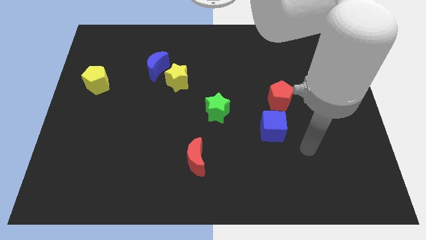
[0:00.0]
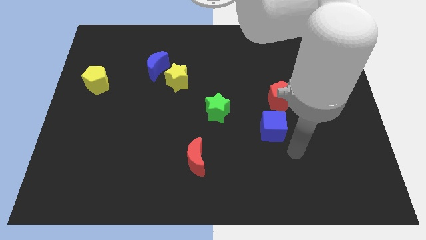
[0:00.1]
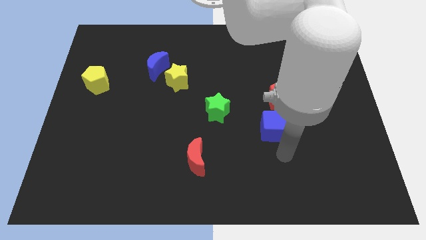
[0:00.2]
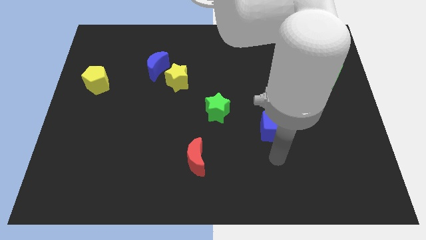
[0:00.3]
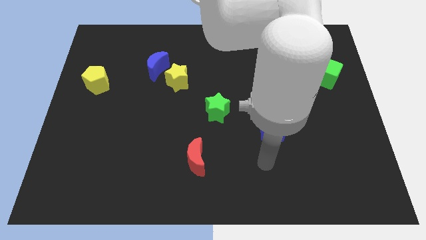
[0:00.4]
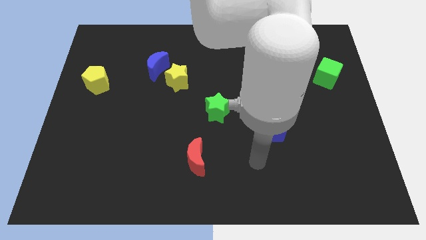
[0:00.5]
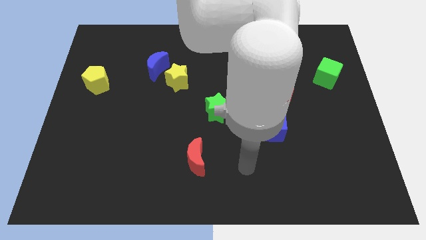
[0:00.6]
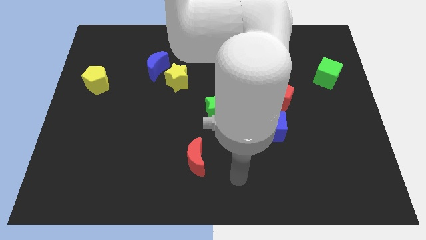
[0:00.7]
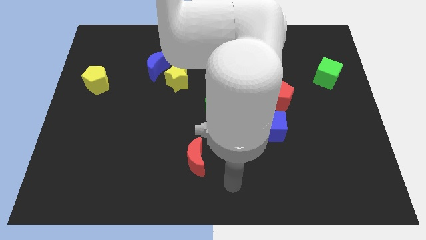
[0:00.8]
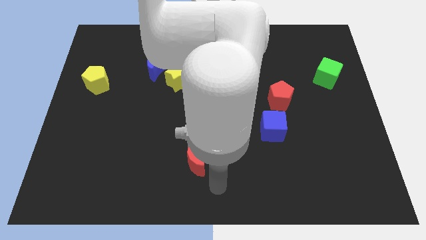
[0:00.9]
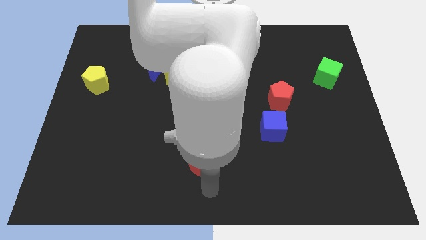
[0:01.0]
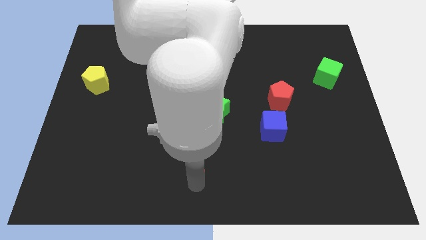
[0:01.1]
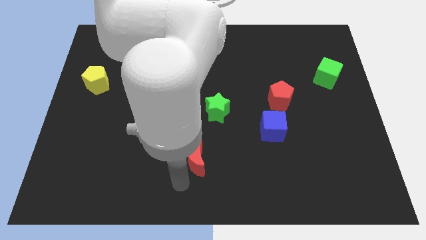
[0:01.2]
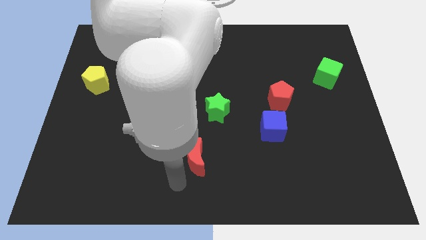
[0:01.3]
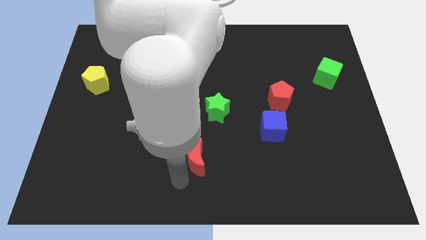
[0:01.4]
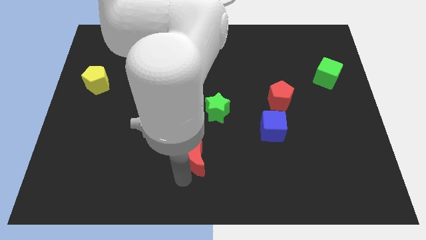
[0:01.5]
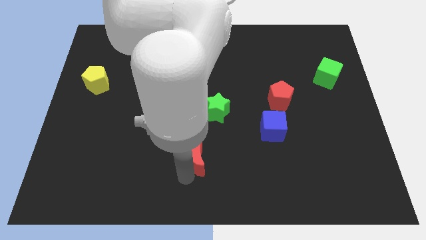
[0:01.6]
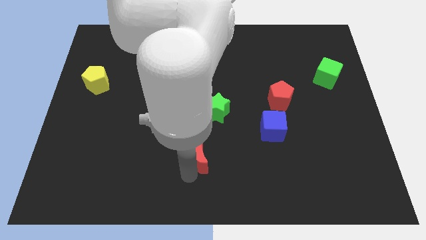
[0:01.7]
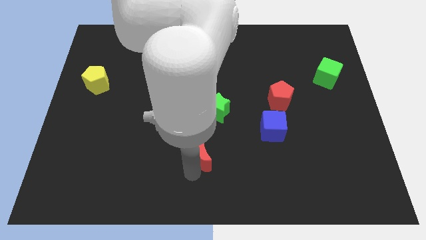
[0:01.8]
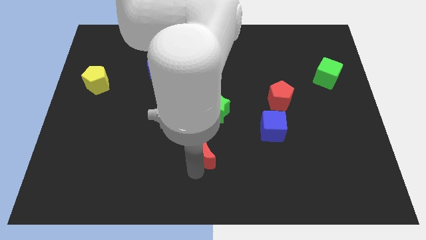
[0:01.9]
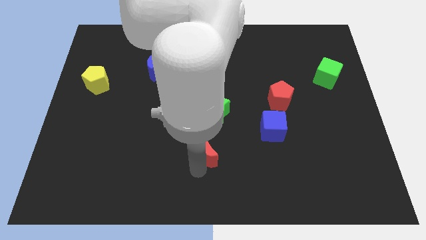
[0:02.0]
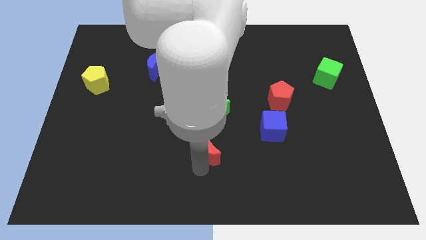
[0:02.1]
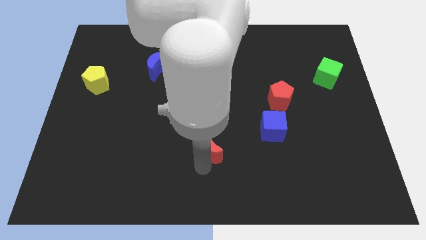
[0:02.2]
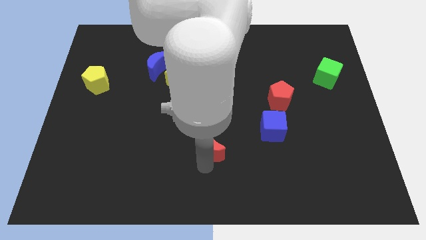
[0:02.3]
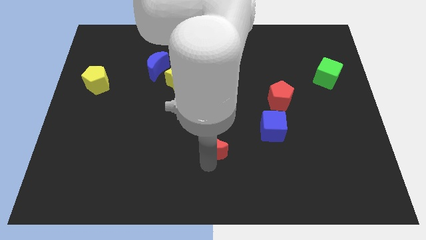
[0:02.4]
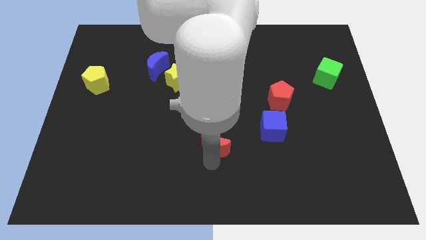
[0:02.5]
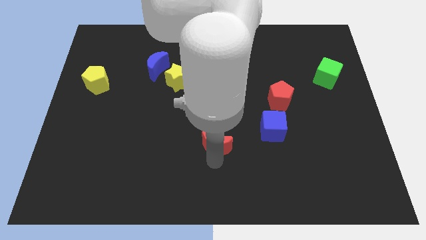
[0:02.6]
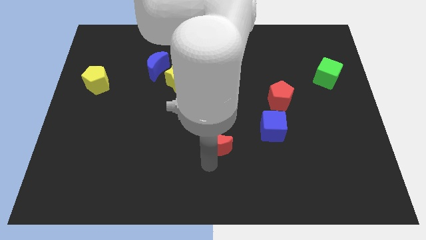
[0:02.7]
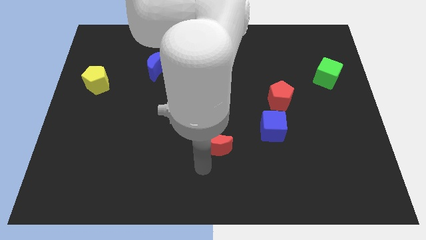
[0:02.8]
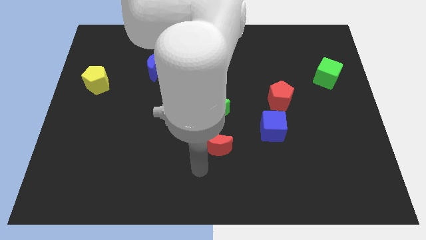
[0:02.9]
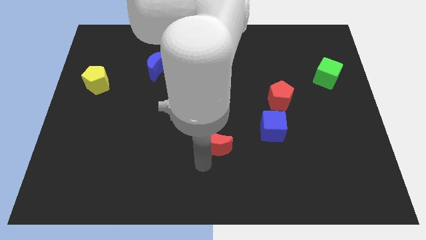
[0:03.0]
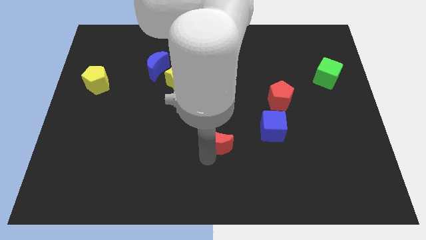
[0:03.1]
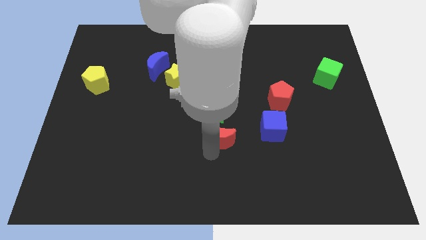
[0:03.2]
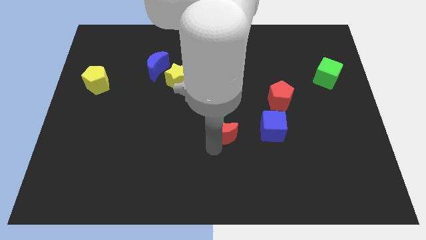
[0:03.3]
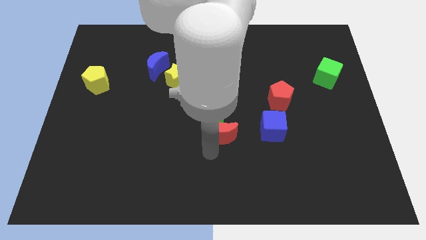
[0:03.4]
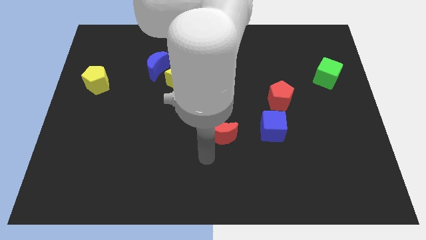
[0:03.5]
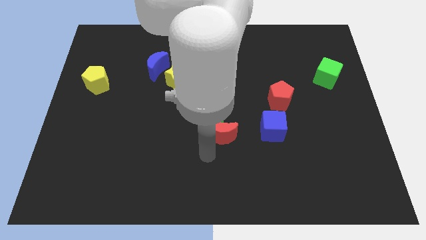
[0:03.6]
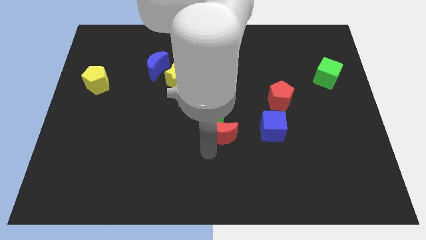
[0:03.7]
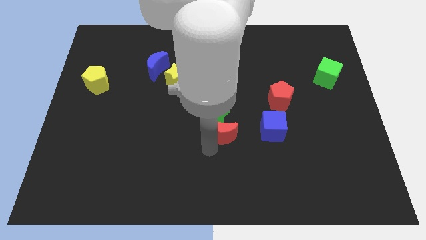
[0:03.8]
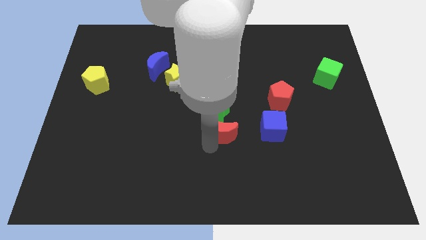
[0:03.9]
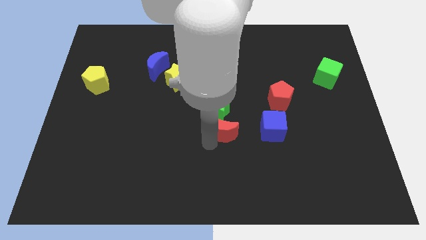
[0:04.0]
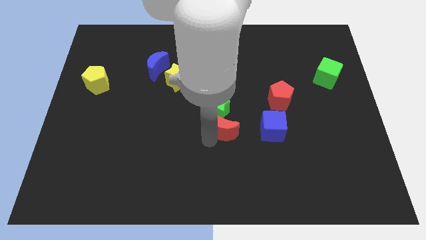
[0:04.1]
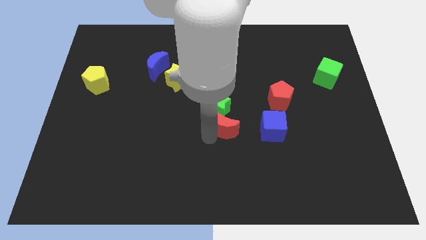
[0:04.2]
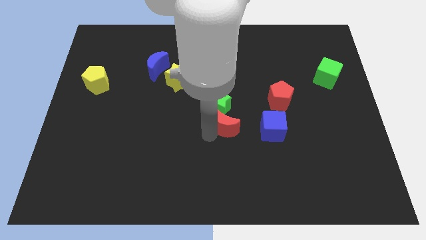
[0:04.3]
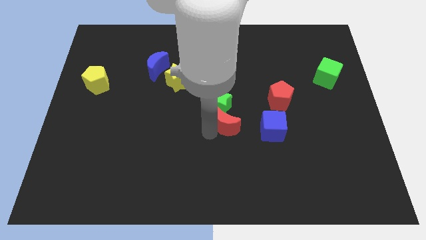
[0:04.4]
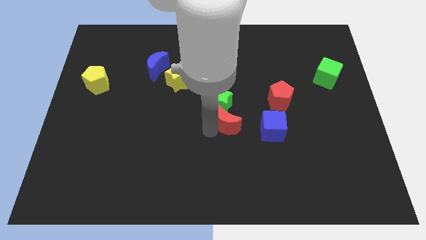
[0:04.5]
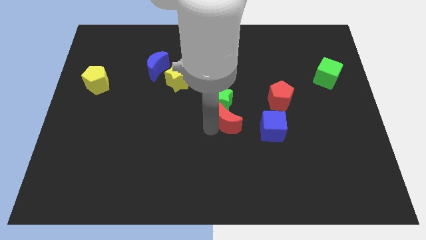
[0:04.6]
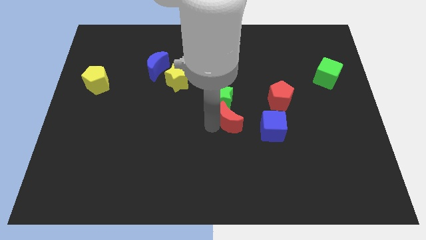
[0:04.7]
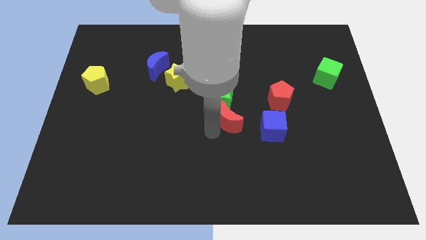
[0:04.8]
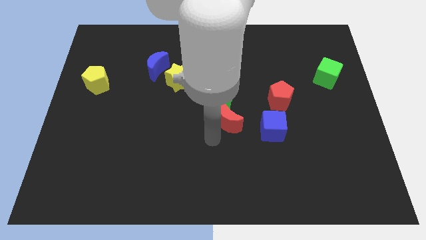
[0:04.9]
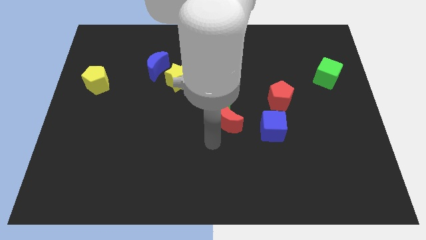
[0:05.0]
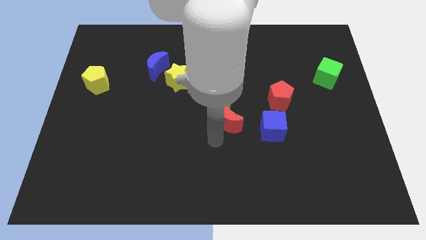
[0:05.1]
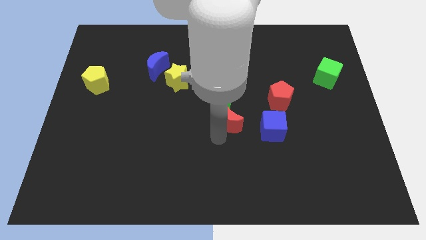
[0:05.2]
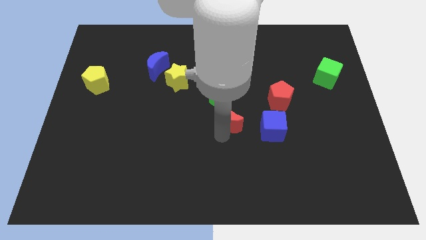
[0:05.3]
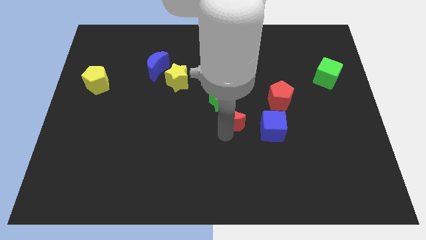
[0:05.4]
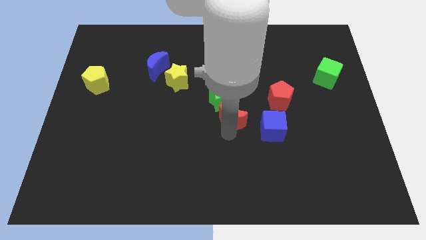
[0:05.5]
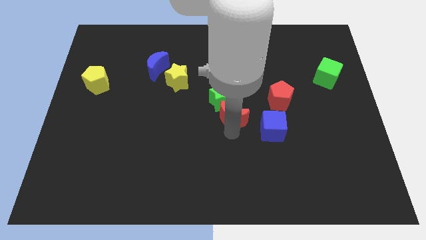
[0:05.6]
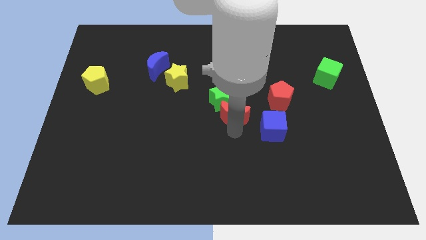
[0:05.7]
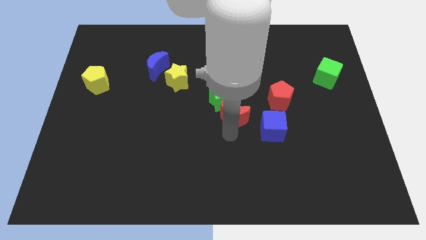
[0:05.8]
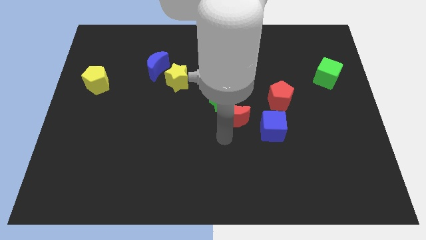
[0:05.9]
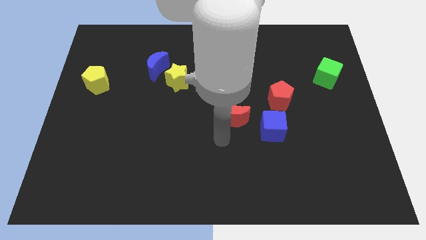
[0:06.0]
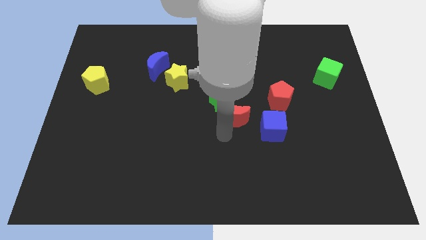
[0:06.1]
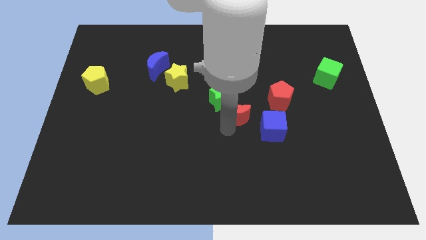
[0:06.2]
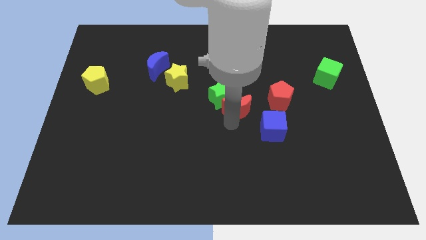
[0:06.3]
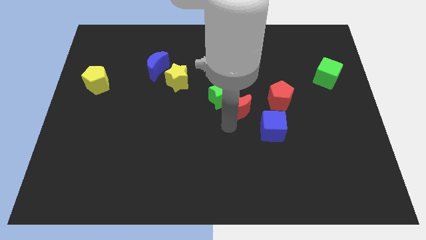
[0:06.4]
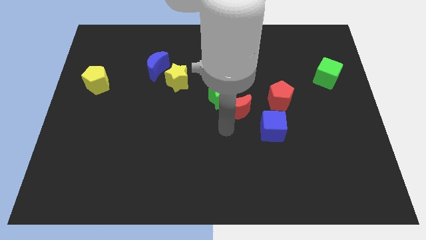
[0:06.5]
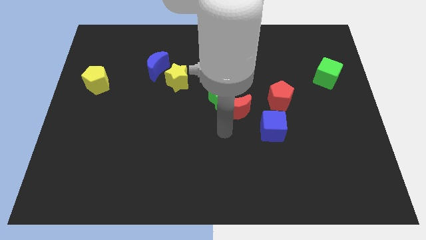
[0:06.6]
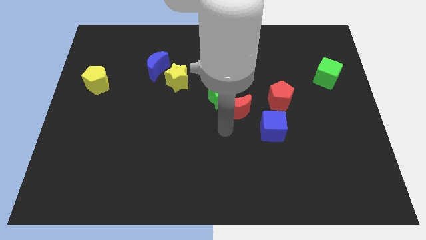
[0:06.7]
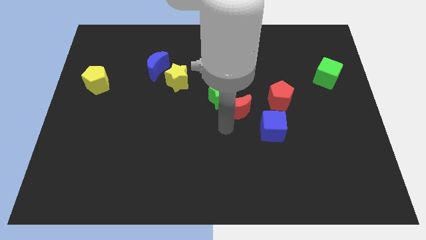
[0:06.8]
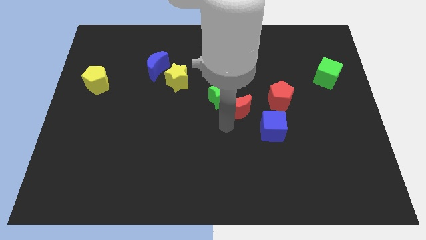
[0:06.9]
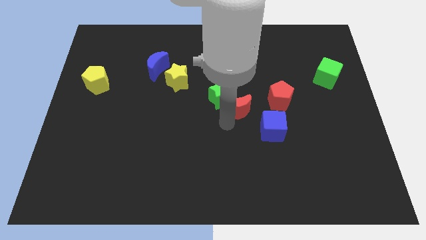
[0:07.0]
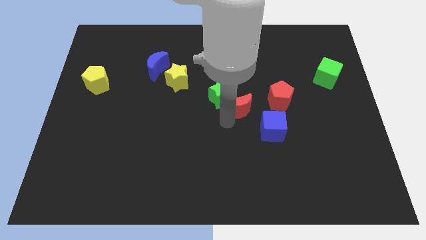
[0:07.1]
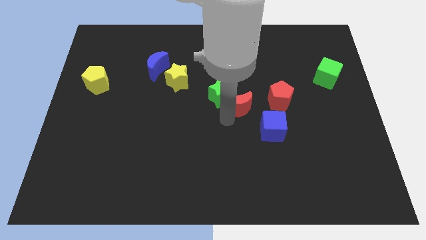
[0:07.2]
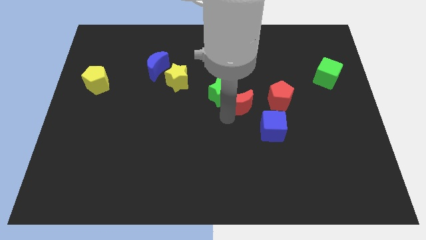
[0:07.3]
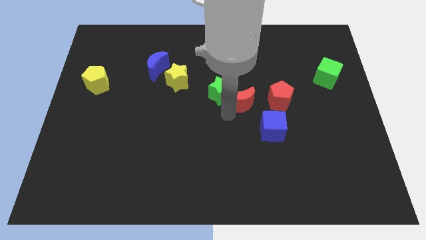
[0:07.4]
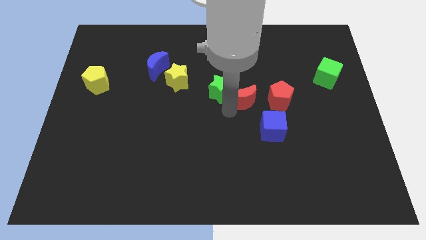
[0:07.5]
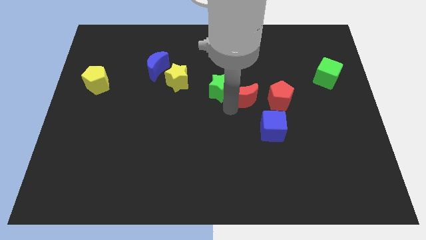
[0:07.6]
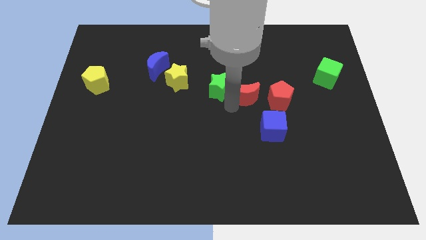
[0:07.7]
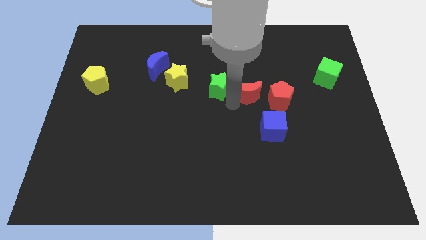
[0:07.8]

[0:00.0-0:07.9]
push the red moon to the top left side of the red pentagon

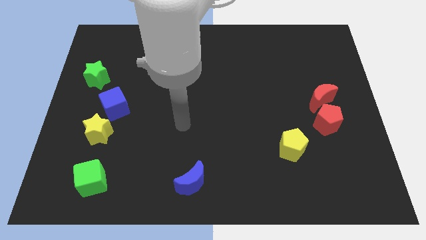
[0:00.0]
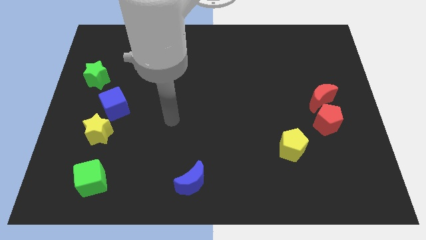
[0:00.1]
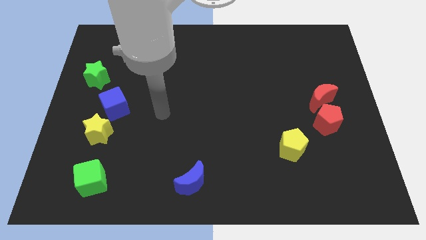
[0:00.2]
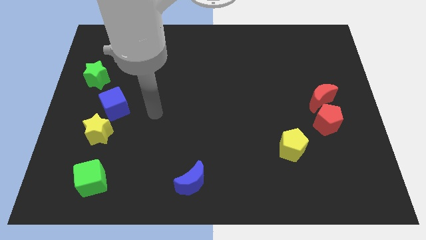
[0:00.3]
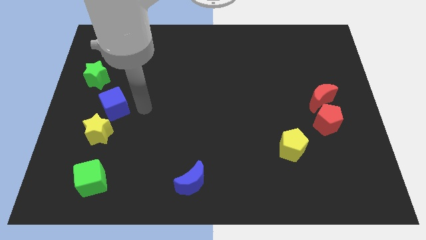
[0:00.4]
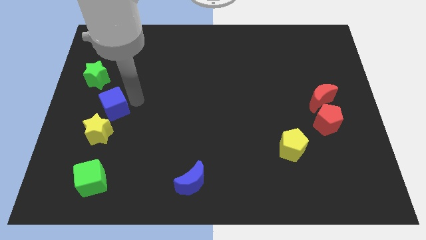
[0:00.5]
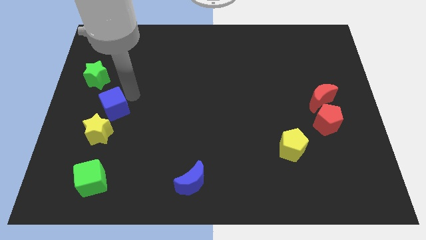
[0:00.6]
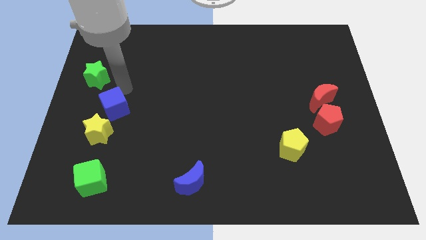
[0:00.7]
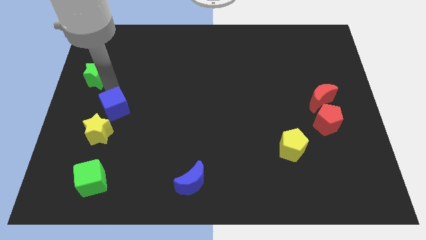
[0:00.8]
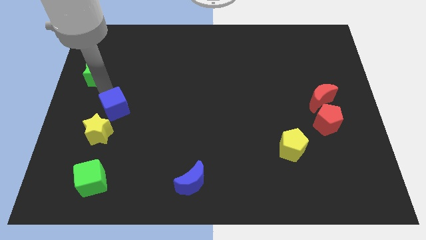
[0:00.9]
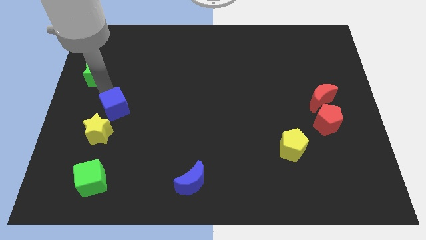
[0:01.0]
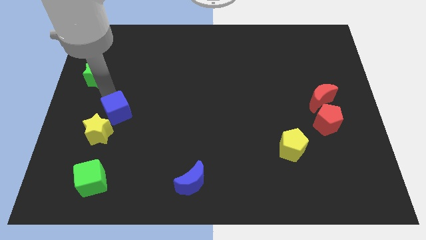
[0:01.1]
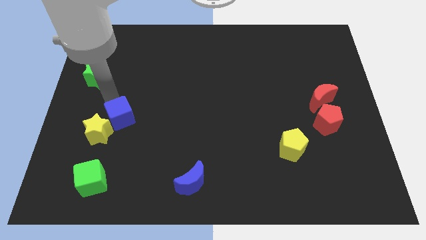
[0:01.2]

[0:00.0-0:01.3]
slide the blue cube to the right of the yellow star
